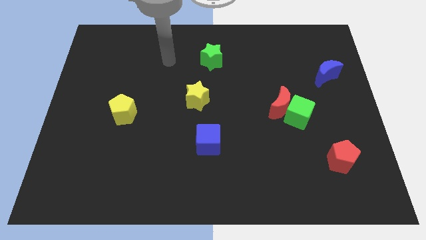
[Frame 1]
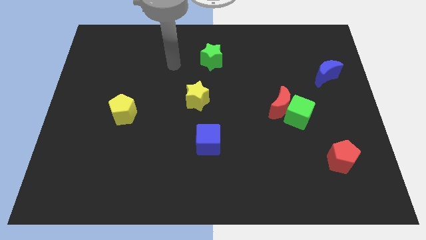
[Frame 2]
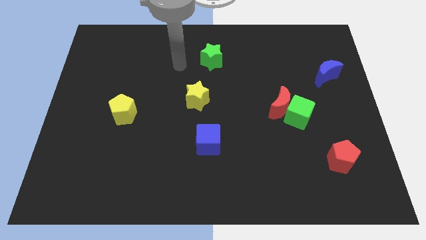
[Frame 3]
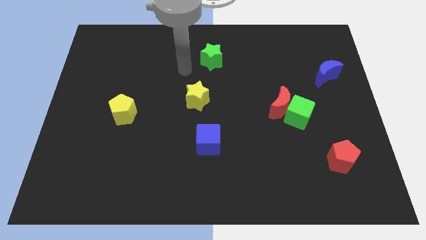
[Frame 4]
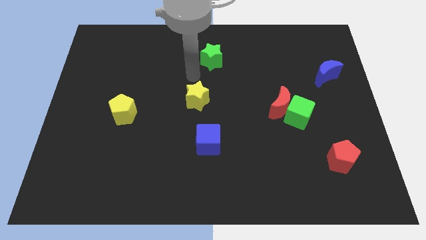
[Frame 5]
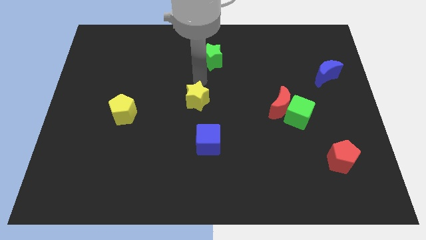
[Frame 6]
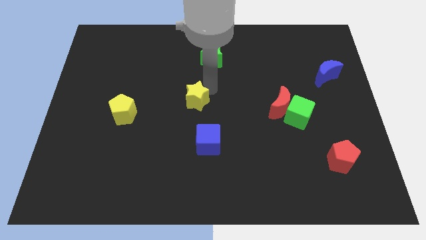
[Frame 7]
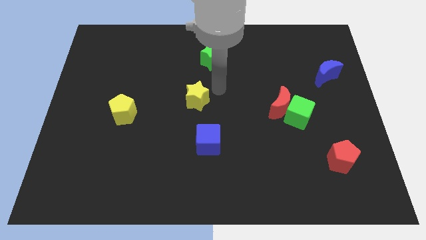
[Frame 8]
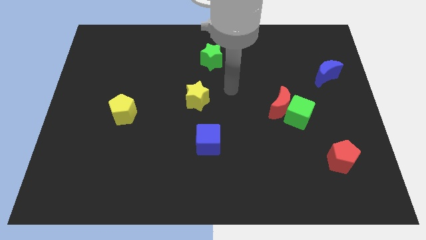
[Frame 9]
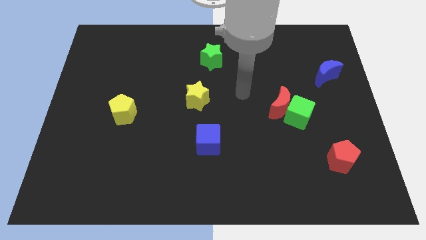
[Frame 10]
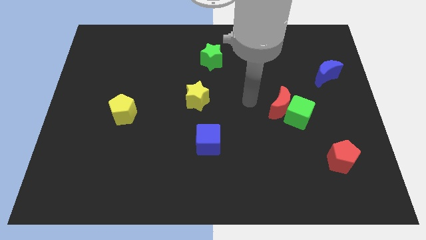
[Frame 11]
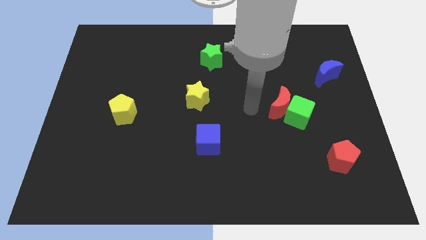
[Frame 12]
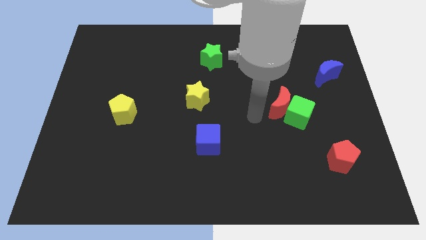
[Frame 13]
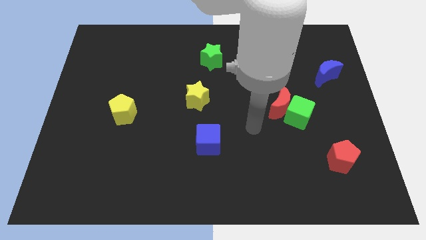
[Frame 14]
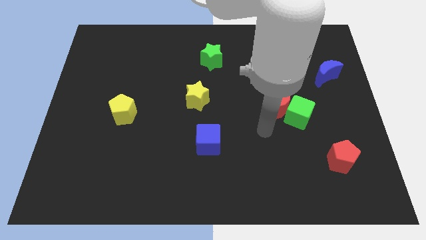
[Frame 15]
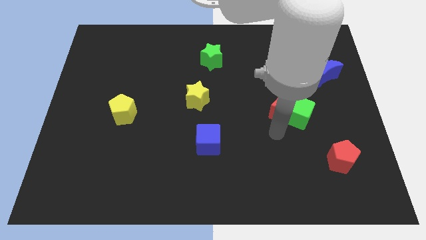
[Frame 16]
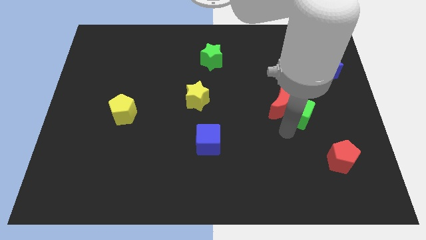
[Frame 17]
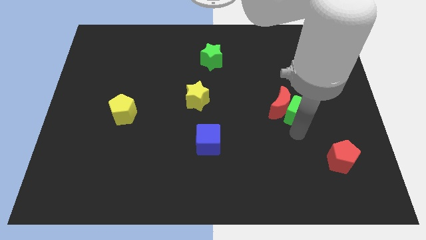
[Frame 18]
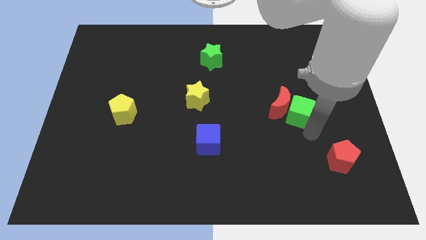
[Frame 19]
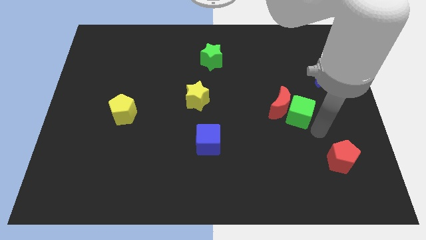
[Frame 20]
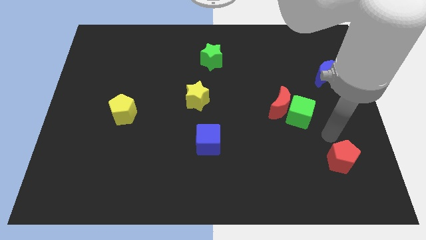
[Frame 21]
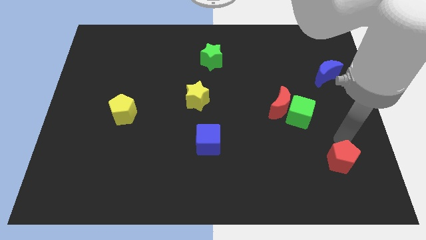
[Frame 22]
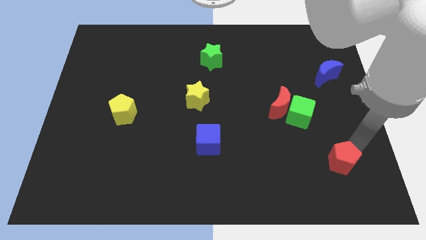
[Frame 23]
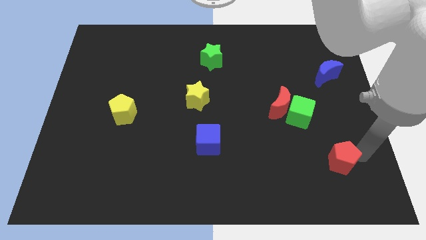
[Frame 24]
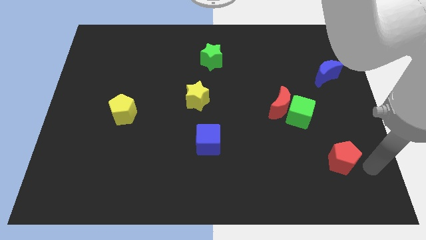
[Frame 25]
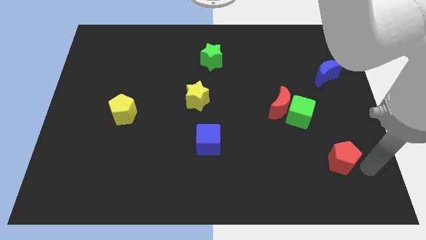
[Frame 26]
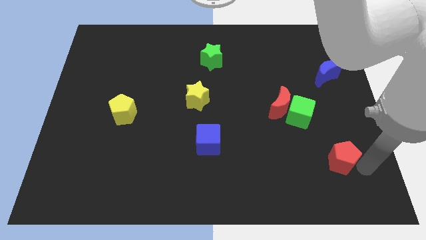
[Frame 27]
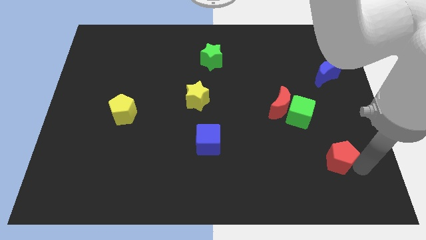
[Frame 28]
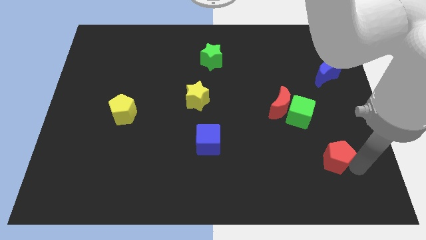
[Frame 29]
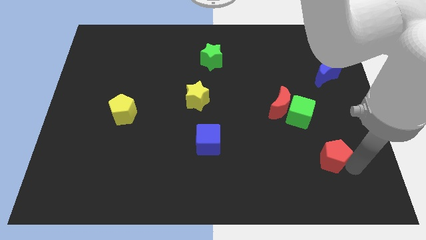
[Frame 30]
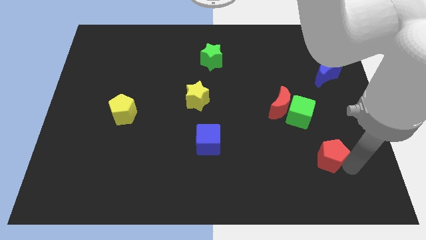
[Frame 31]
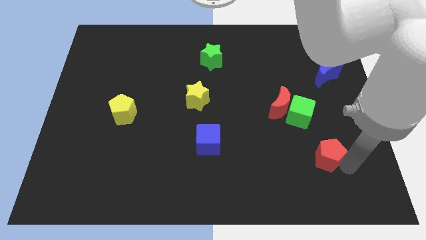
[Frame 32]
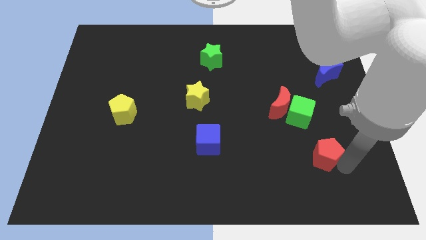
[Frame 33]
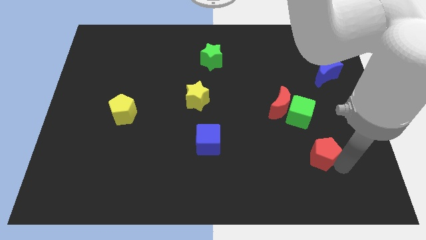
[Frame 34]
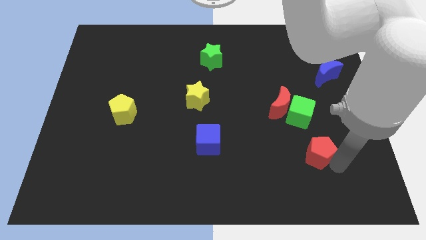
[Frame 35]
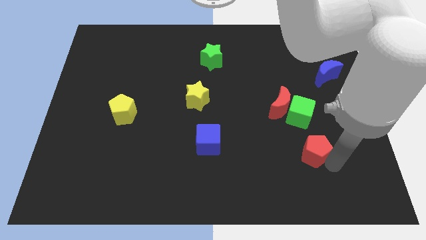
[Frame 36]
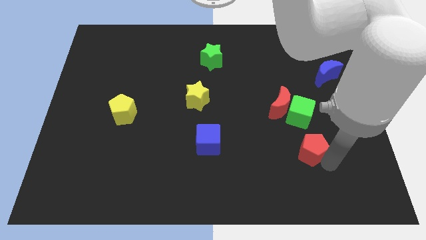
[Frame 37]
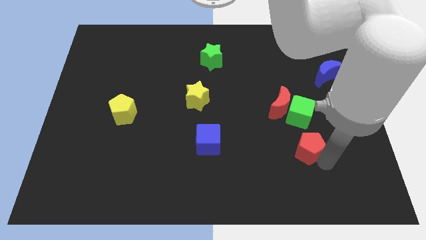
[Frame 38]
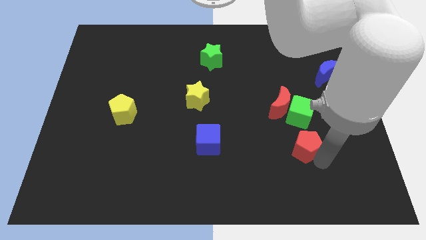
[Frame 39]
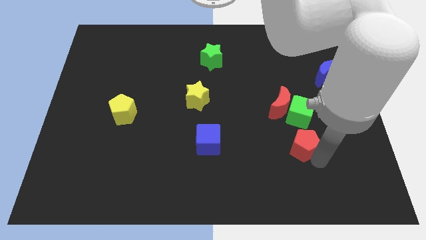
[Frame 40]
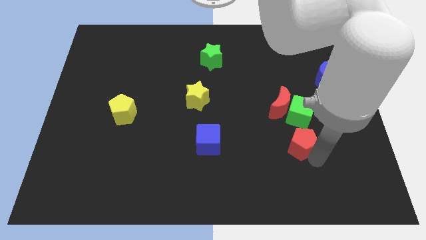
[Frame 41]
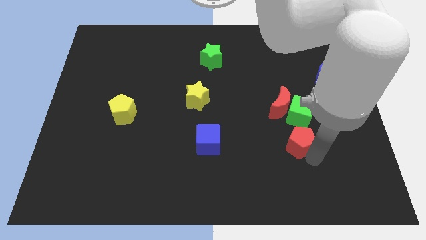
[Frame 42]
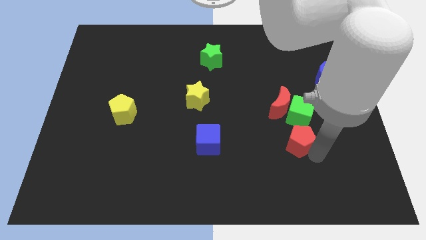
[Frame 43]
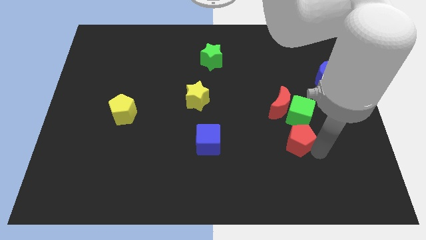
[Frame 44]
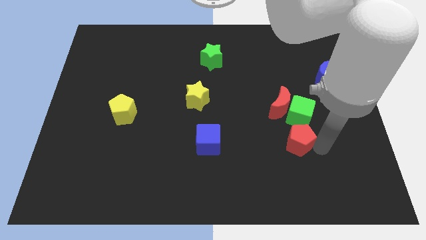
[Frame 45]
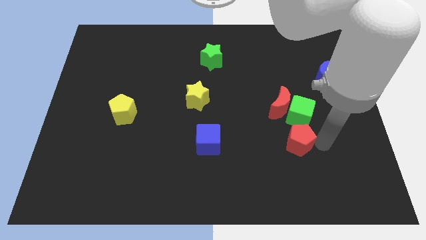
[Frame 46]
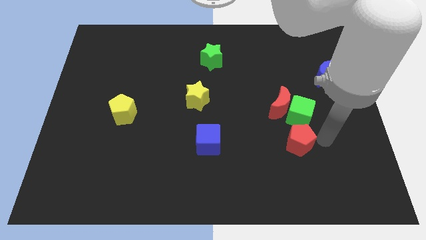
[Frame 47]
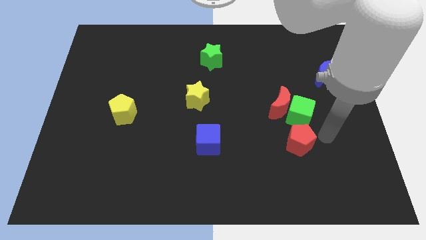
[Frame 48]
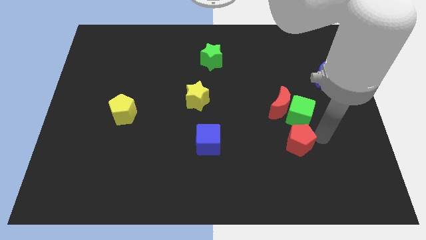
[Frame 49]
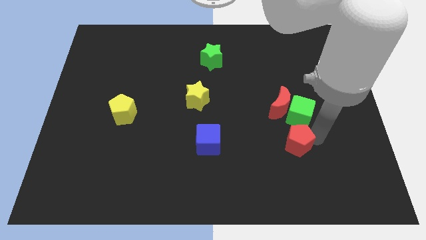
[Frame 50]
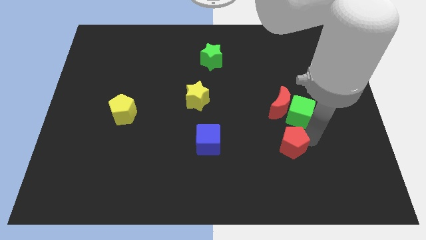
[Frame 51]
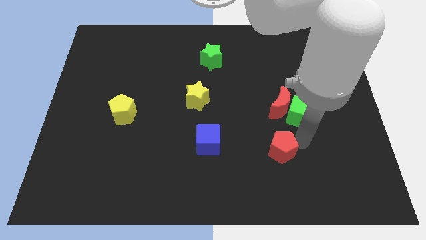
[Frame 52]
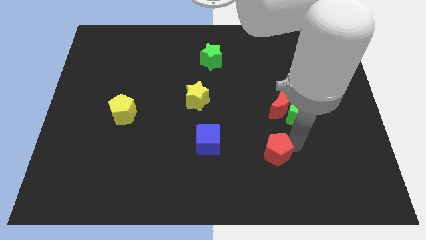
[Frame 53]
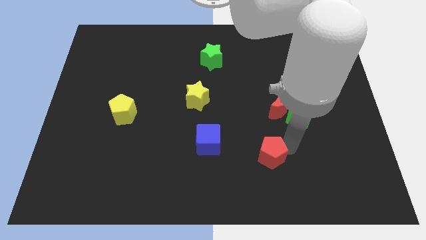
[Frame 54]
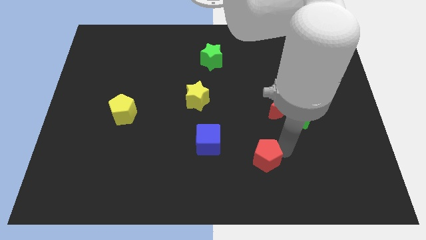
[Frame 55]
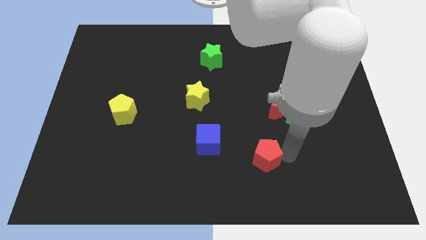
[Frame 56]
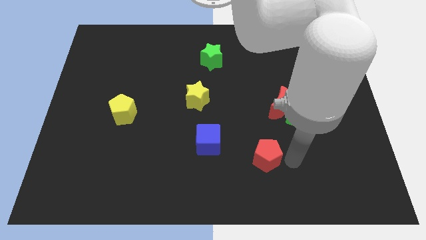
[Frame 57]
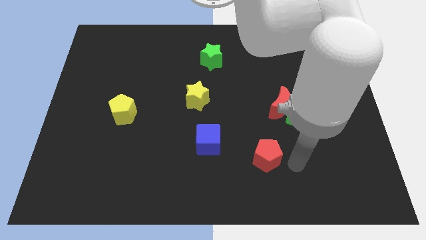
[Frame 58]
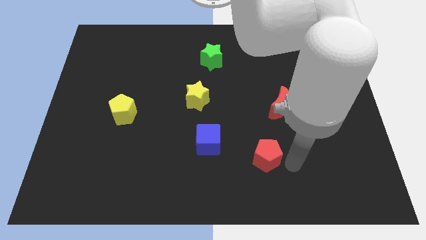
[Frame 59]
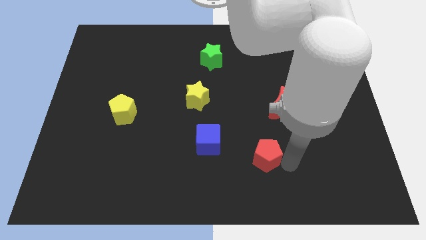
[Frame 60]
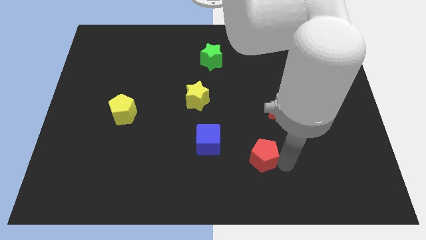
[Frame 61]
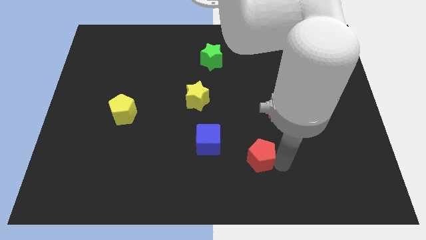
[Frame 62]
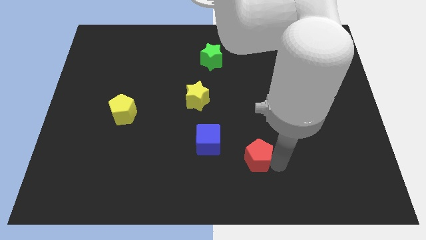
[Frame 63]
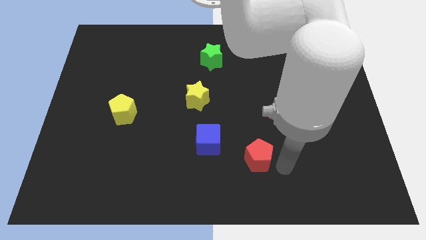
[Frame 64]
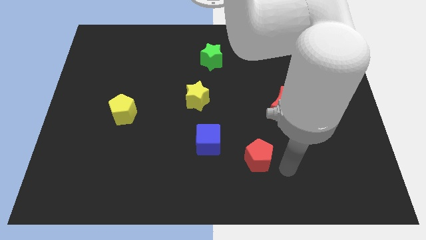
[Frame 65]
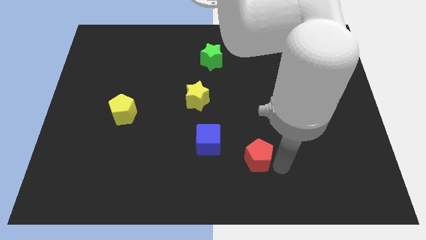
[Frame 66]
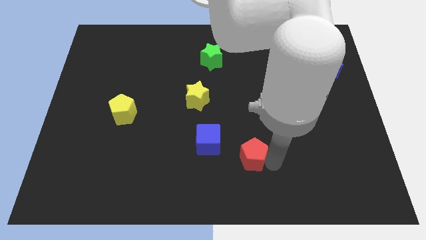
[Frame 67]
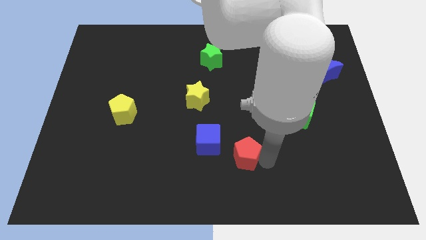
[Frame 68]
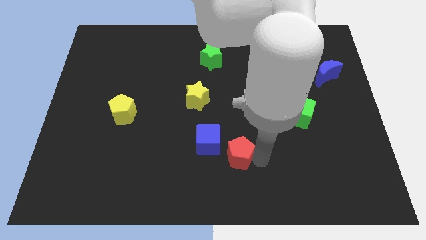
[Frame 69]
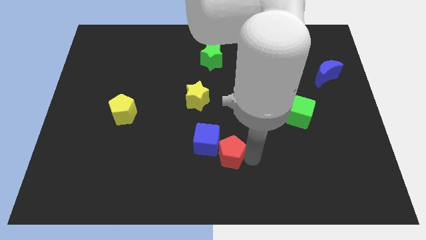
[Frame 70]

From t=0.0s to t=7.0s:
slide the red pentagon to the blue cube

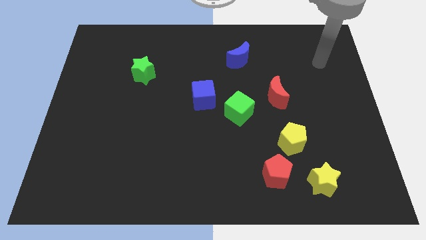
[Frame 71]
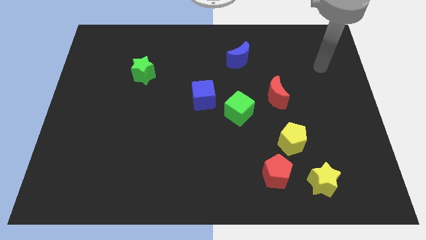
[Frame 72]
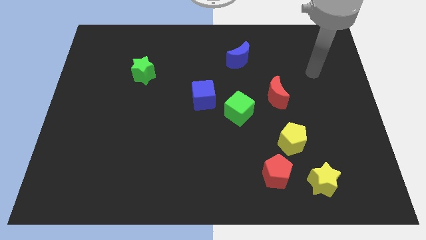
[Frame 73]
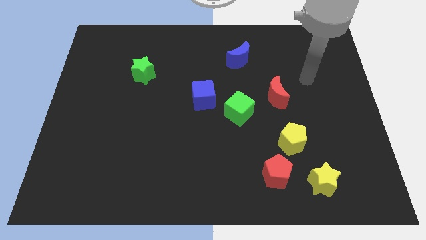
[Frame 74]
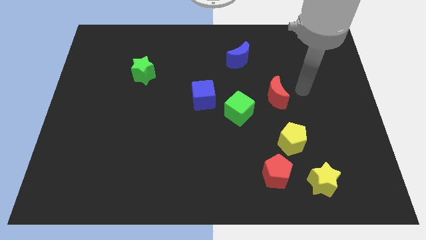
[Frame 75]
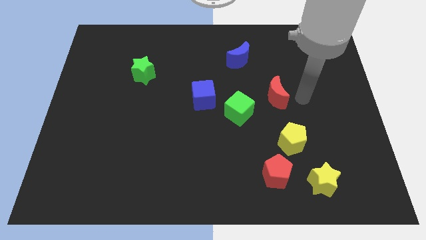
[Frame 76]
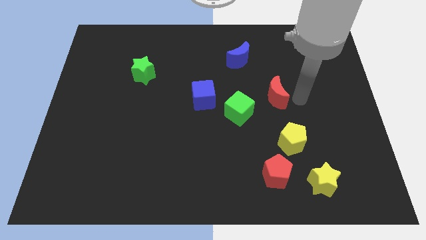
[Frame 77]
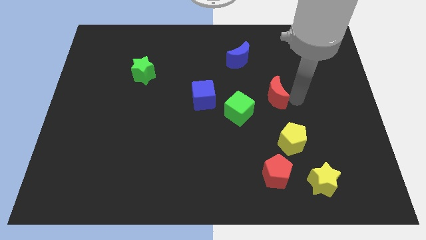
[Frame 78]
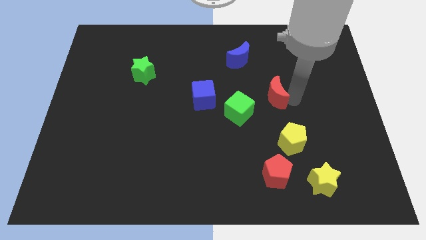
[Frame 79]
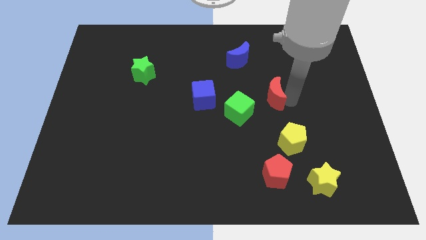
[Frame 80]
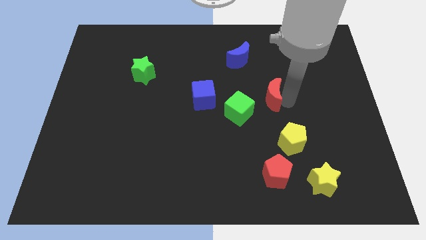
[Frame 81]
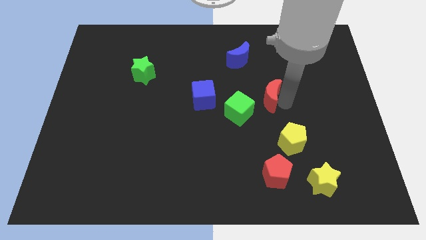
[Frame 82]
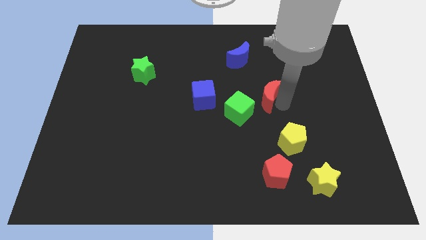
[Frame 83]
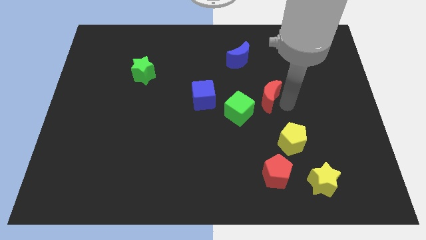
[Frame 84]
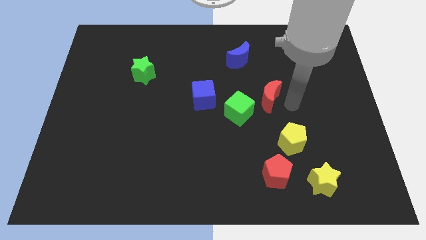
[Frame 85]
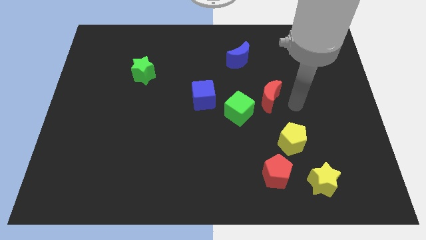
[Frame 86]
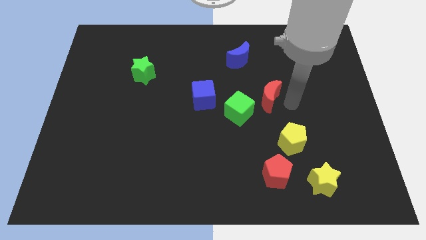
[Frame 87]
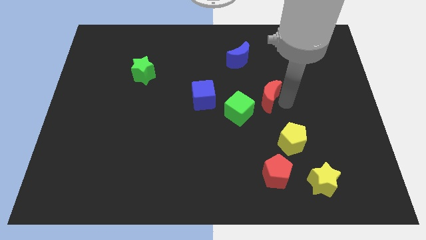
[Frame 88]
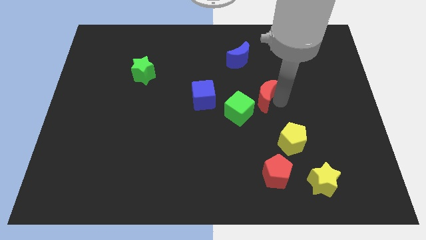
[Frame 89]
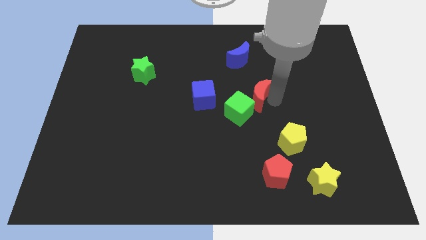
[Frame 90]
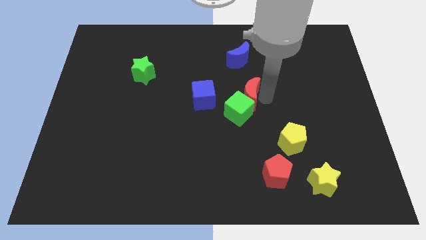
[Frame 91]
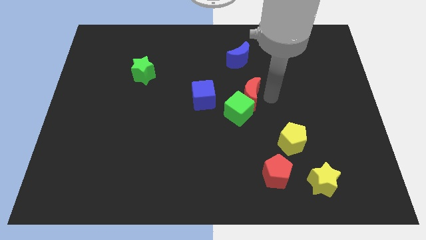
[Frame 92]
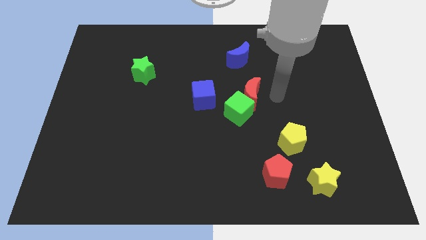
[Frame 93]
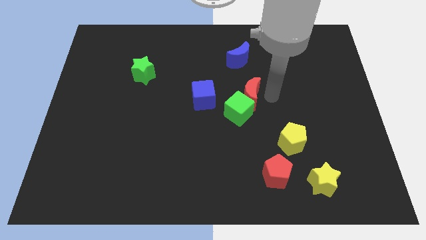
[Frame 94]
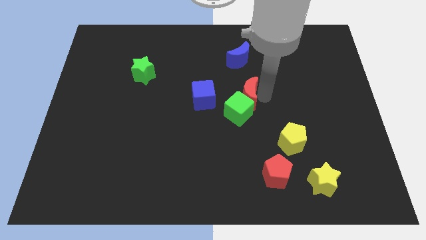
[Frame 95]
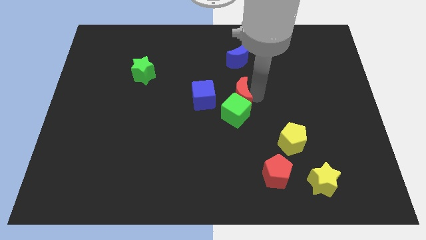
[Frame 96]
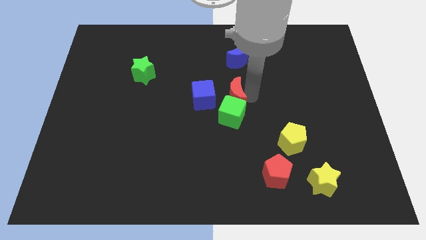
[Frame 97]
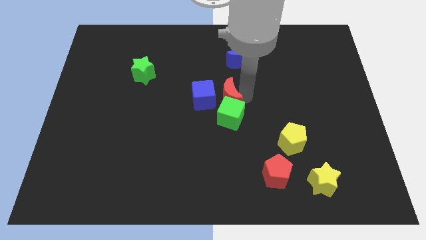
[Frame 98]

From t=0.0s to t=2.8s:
move the red moon towards the blue cube
